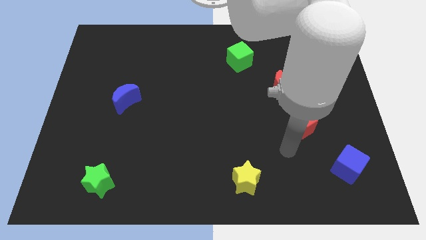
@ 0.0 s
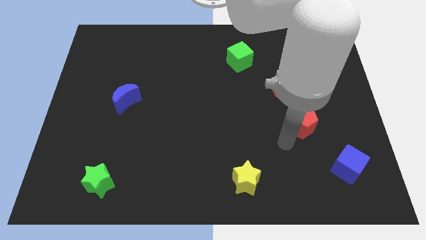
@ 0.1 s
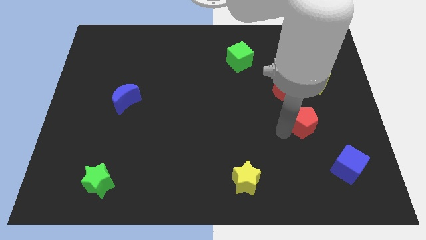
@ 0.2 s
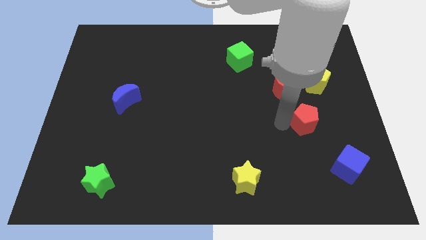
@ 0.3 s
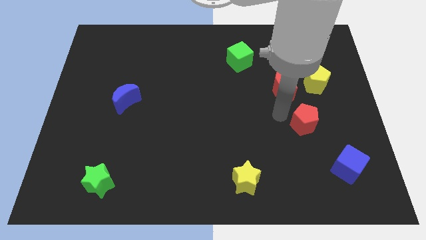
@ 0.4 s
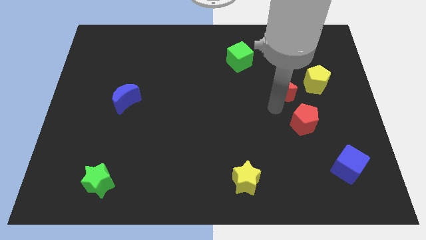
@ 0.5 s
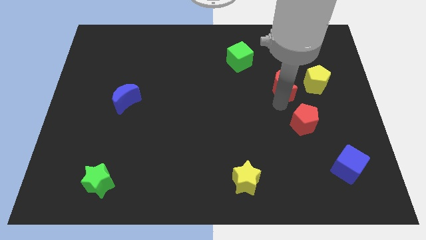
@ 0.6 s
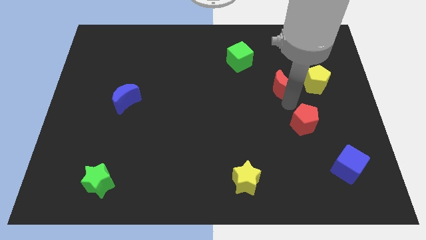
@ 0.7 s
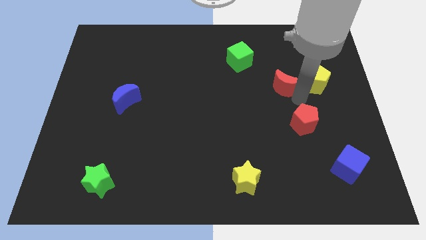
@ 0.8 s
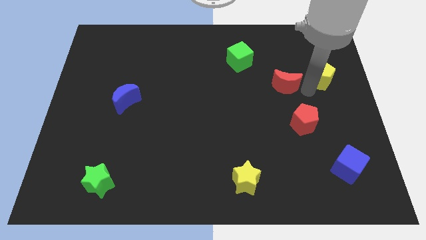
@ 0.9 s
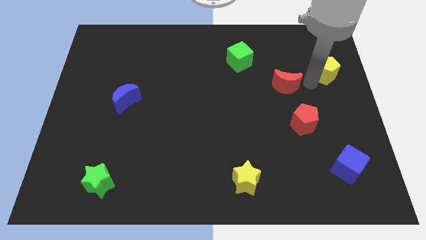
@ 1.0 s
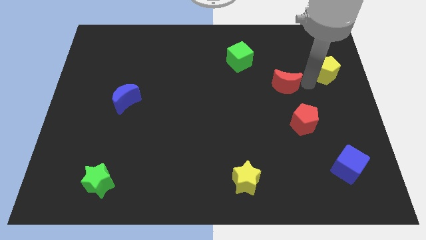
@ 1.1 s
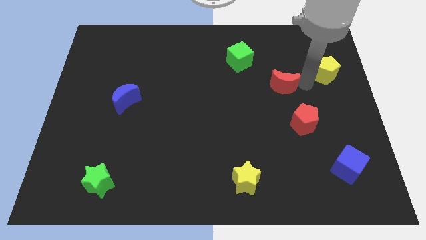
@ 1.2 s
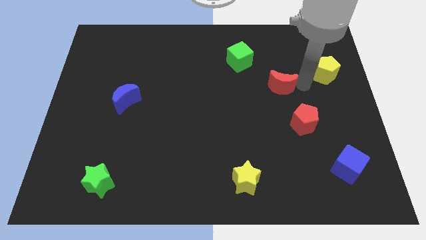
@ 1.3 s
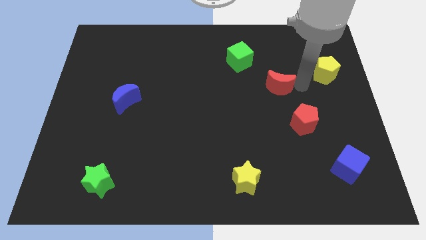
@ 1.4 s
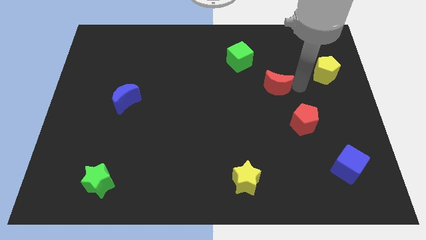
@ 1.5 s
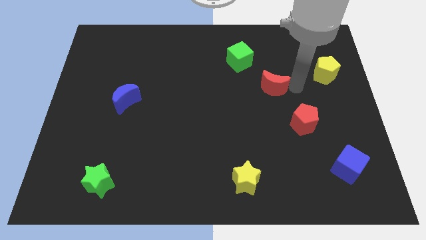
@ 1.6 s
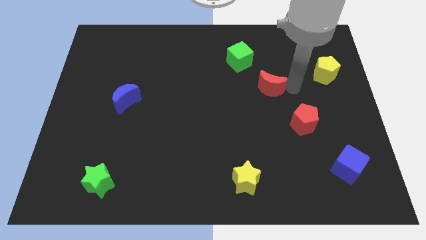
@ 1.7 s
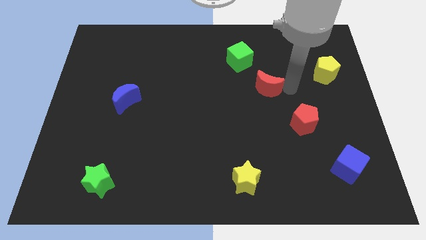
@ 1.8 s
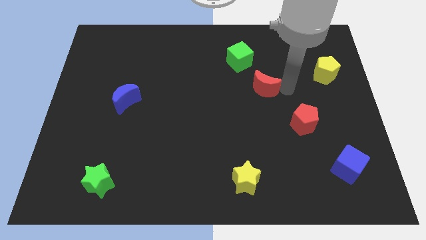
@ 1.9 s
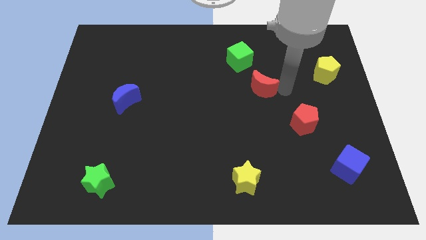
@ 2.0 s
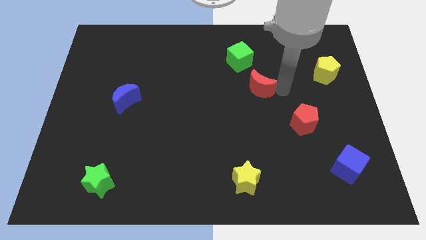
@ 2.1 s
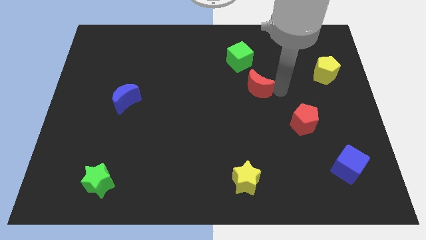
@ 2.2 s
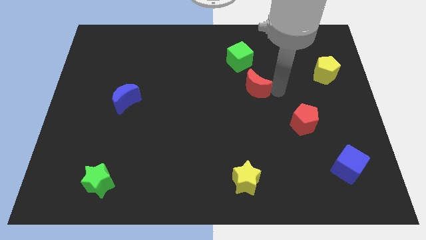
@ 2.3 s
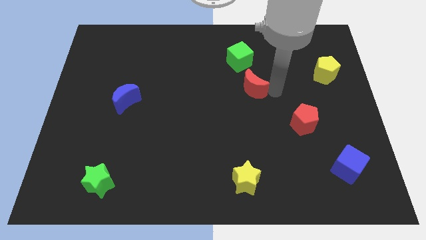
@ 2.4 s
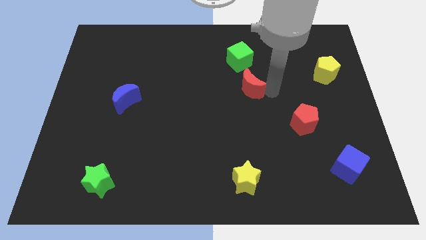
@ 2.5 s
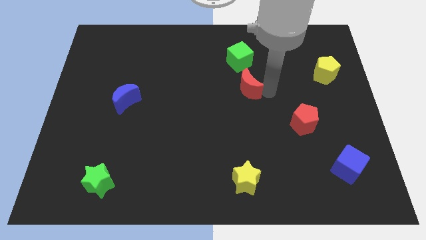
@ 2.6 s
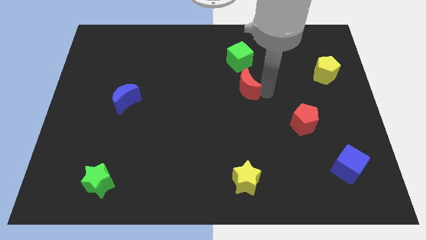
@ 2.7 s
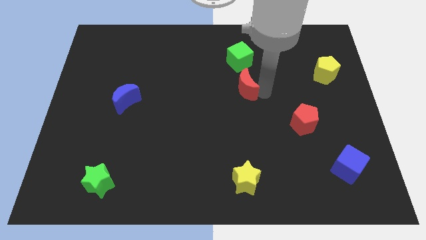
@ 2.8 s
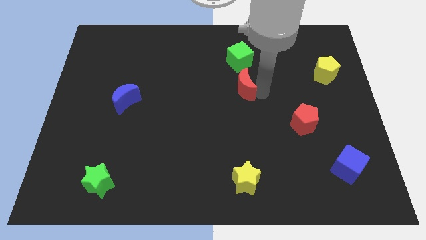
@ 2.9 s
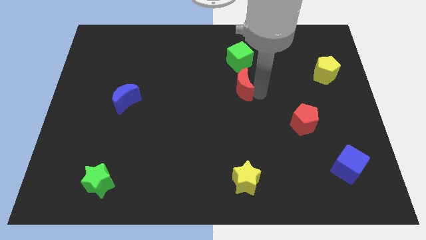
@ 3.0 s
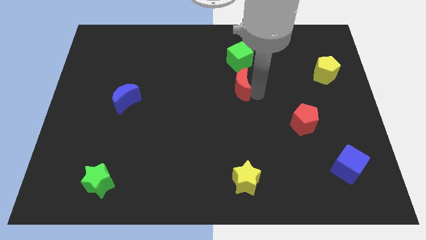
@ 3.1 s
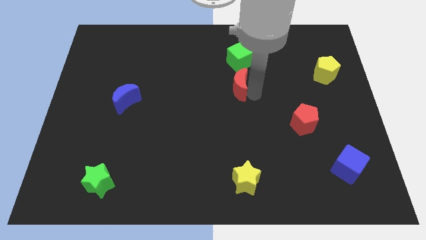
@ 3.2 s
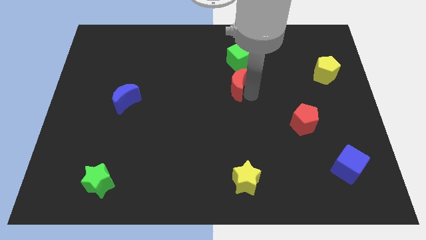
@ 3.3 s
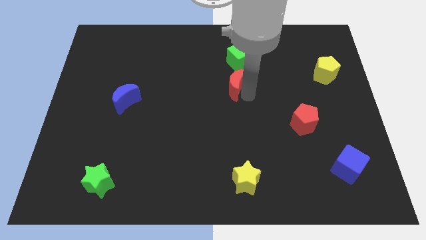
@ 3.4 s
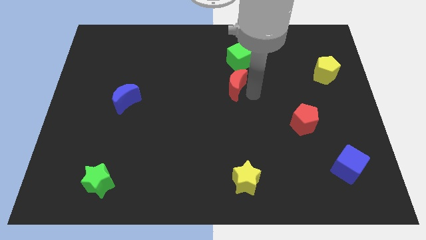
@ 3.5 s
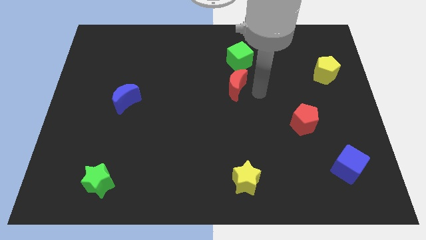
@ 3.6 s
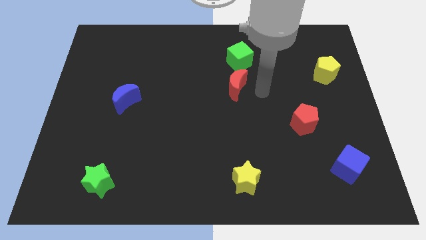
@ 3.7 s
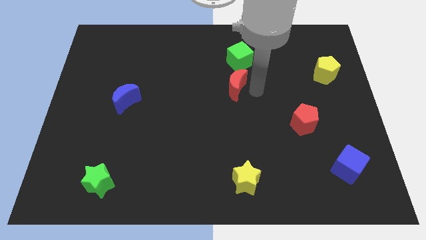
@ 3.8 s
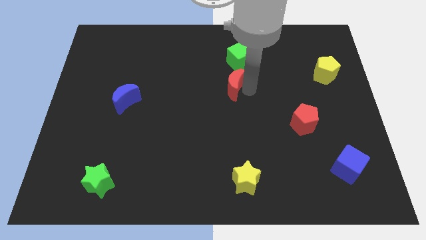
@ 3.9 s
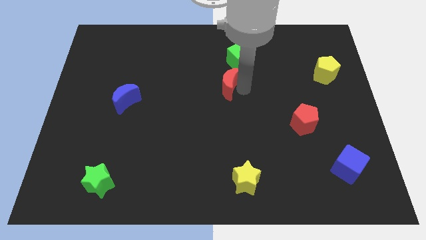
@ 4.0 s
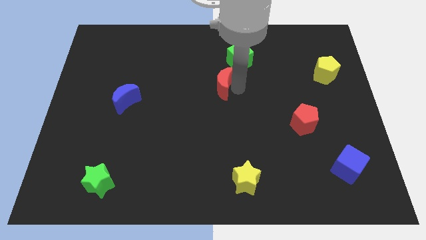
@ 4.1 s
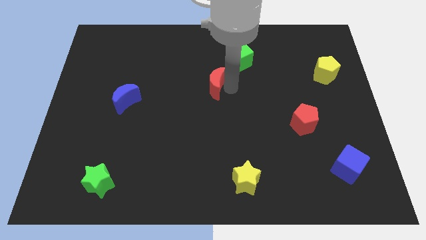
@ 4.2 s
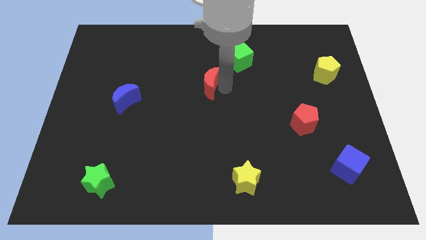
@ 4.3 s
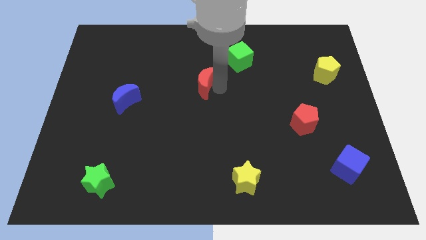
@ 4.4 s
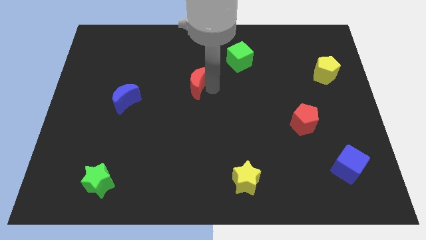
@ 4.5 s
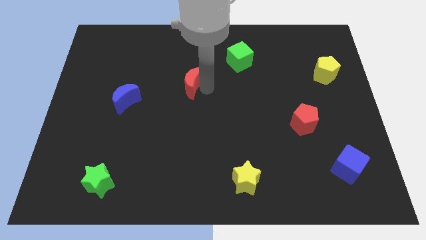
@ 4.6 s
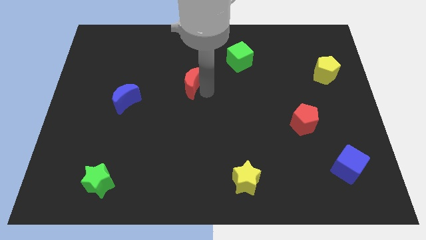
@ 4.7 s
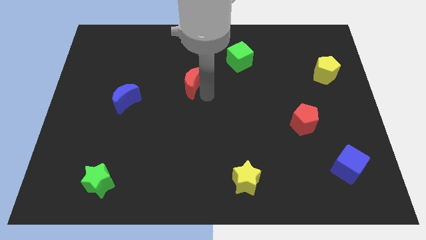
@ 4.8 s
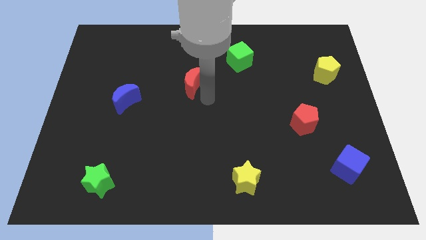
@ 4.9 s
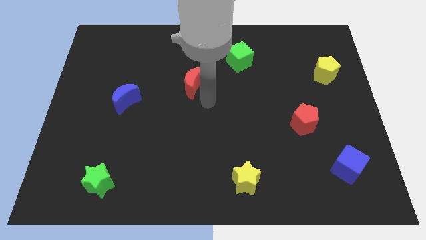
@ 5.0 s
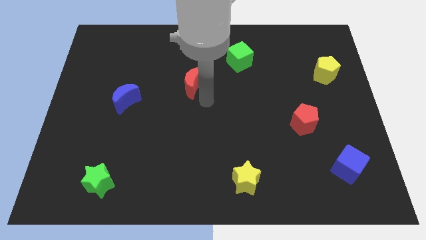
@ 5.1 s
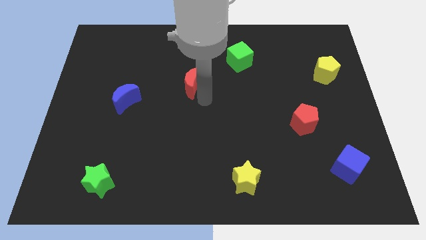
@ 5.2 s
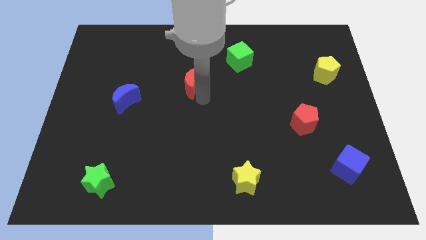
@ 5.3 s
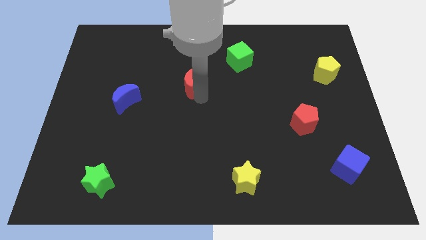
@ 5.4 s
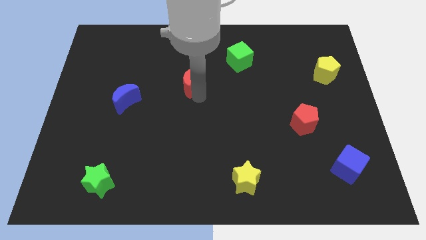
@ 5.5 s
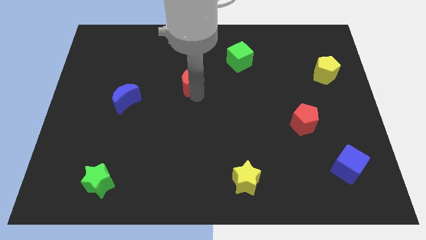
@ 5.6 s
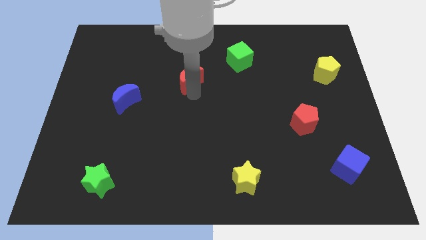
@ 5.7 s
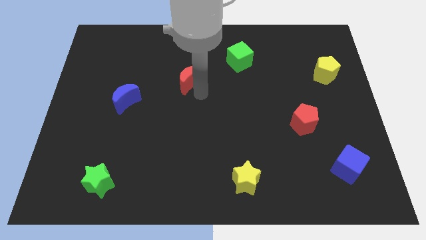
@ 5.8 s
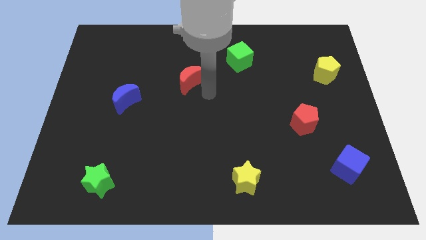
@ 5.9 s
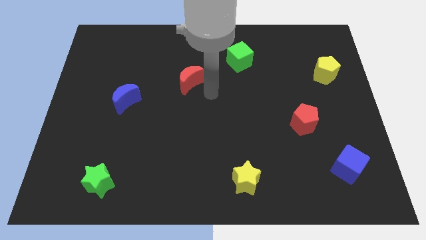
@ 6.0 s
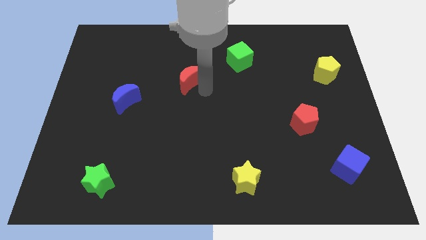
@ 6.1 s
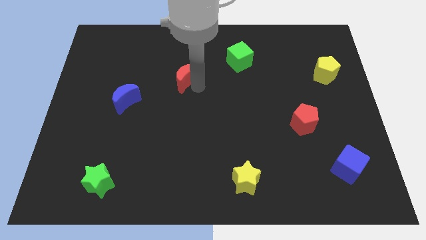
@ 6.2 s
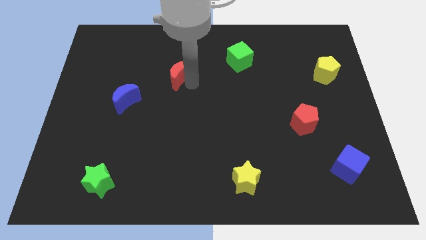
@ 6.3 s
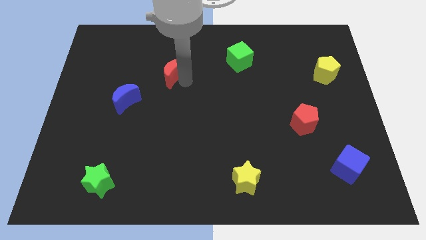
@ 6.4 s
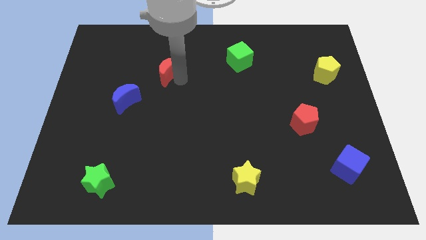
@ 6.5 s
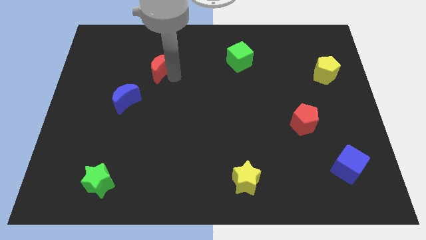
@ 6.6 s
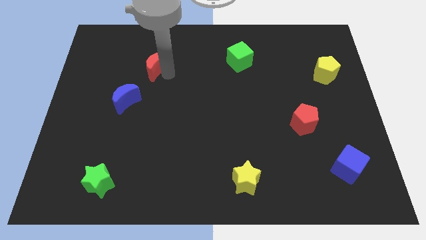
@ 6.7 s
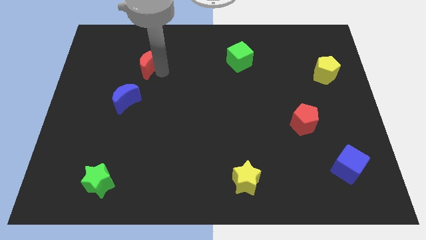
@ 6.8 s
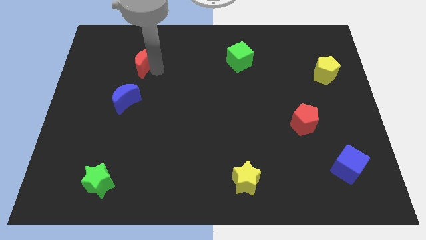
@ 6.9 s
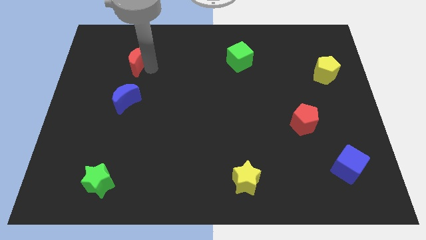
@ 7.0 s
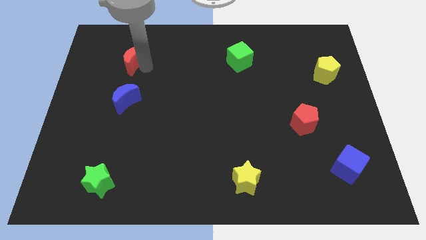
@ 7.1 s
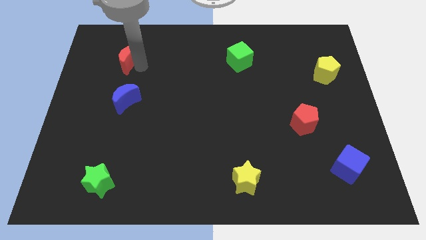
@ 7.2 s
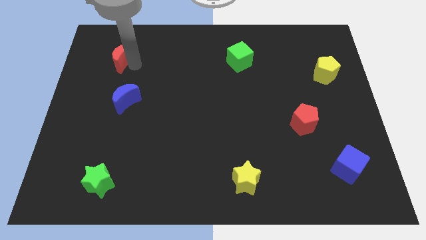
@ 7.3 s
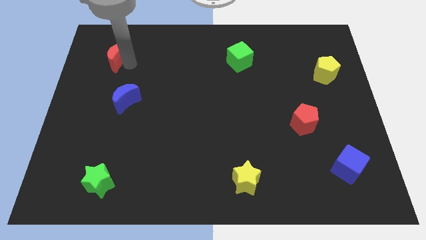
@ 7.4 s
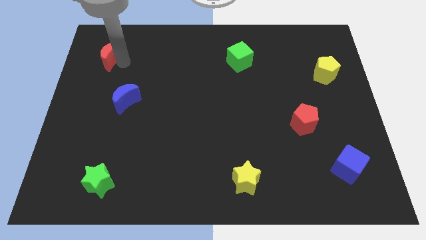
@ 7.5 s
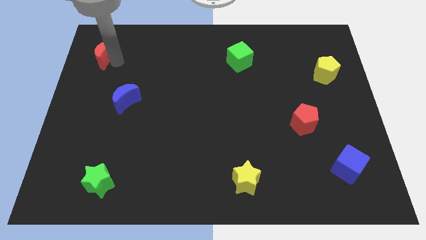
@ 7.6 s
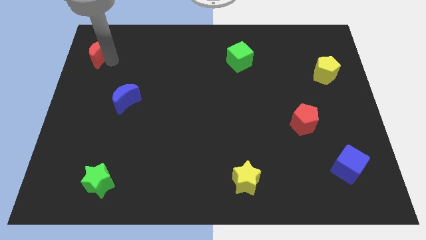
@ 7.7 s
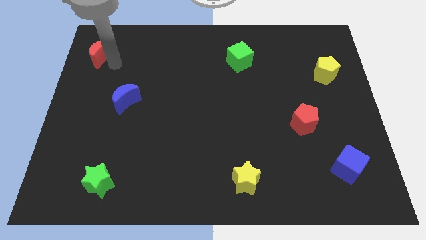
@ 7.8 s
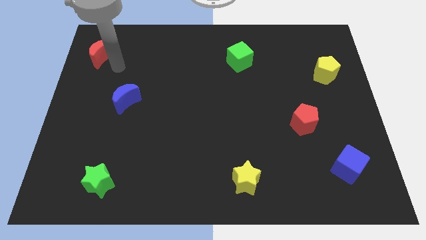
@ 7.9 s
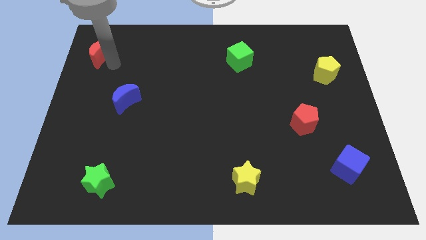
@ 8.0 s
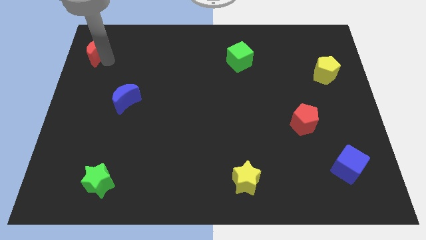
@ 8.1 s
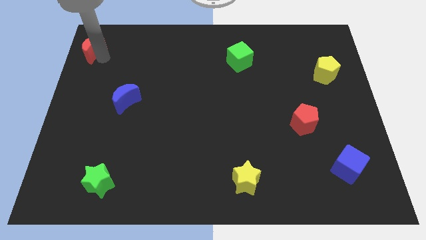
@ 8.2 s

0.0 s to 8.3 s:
put the red moon to the top left corner
